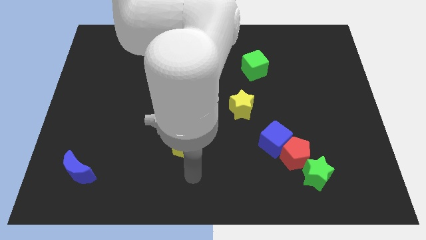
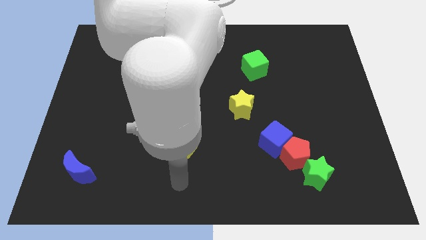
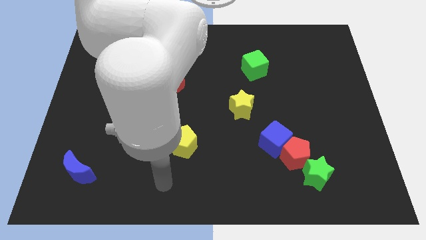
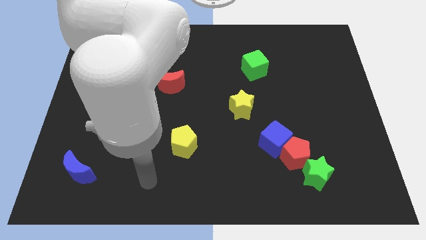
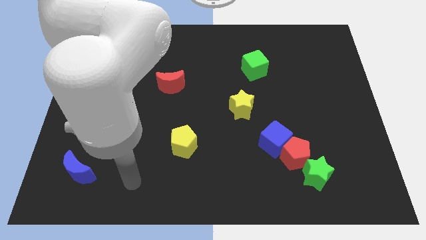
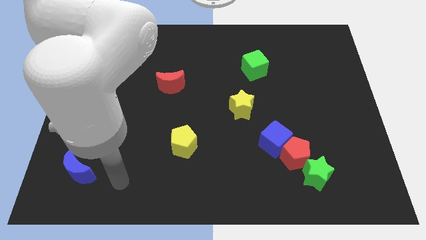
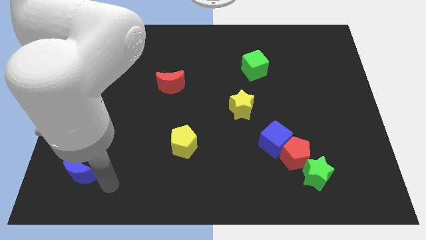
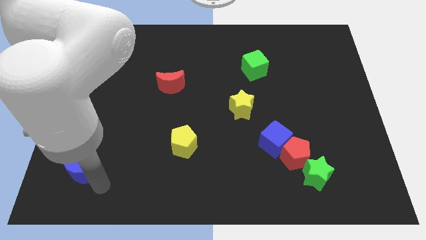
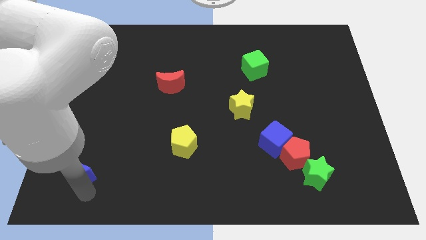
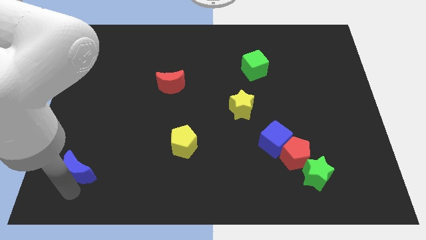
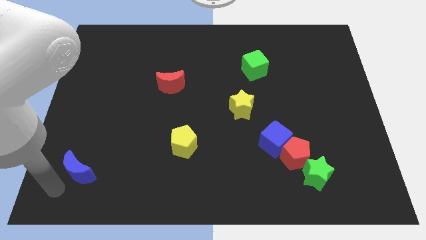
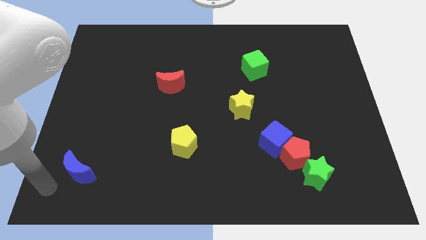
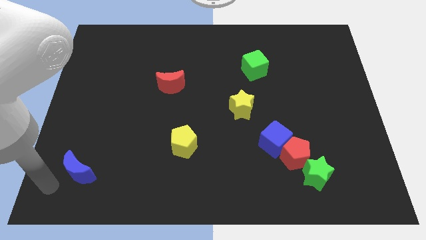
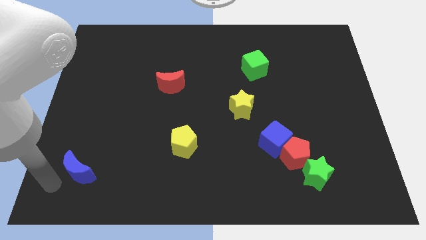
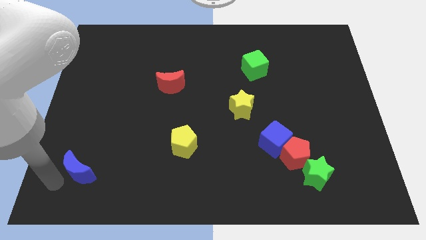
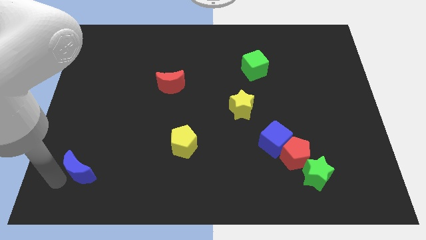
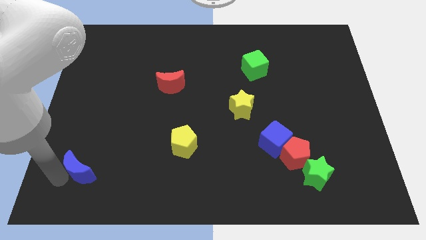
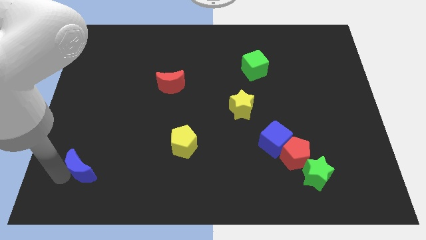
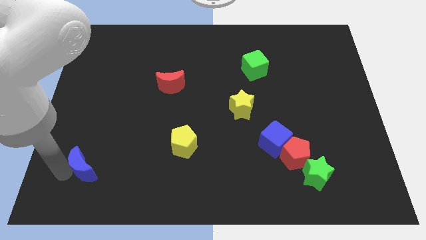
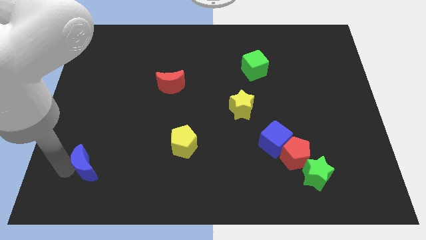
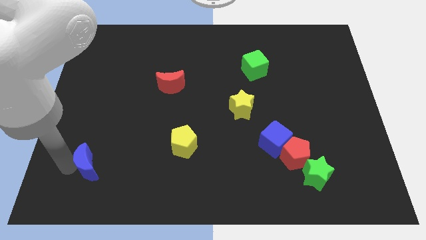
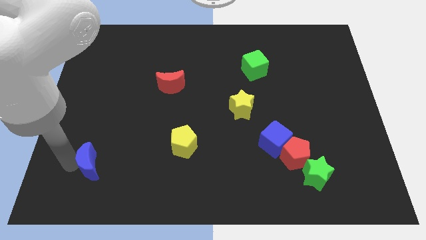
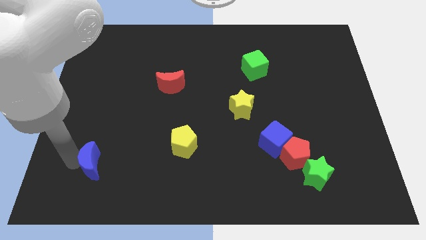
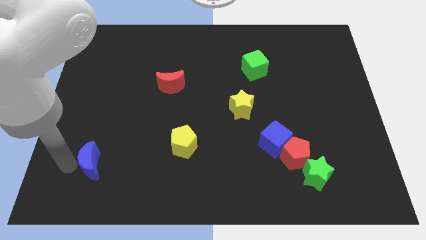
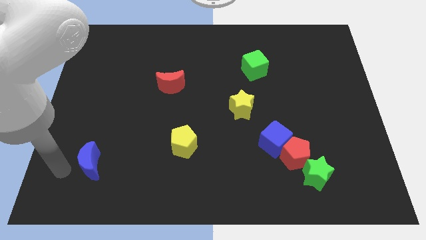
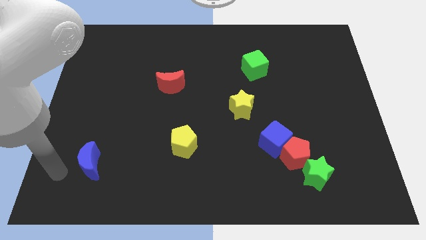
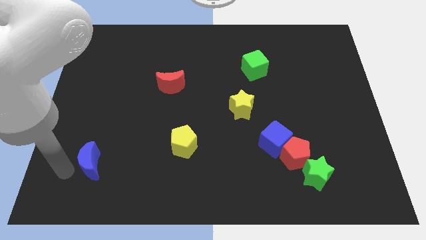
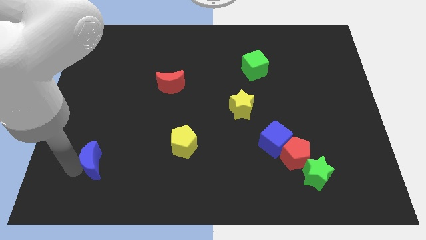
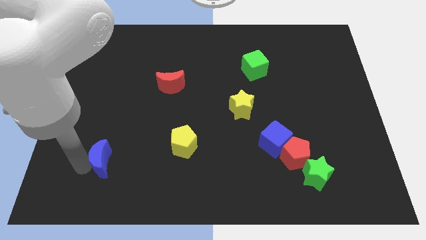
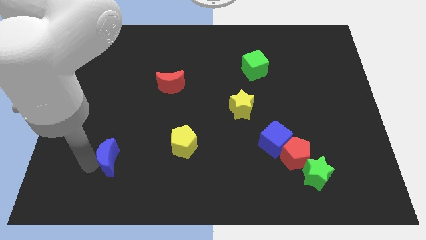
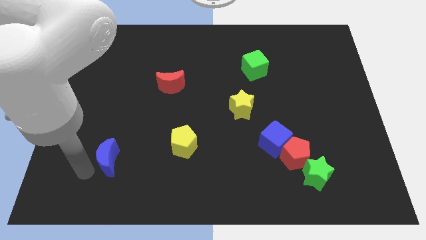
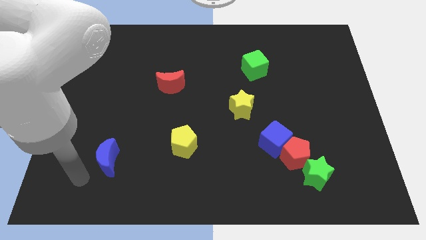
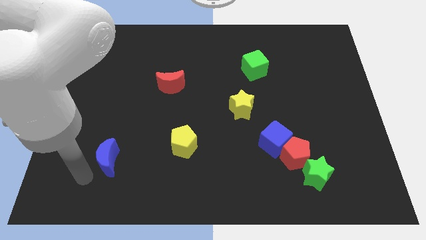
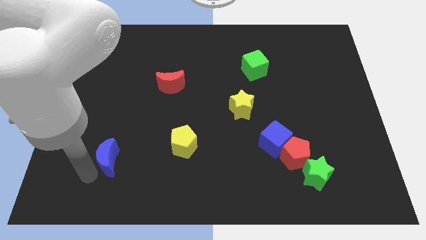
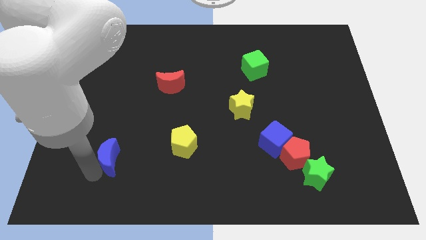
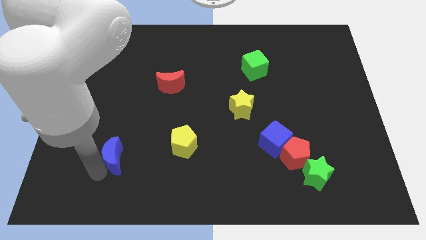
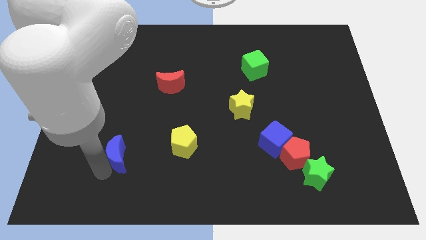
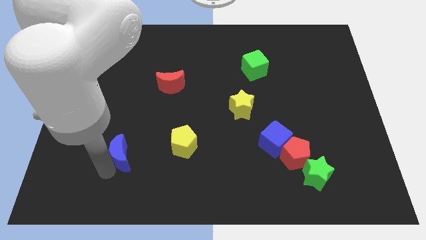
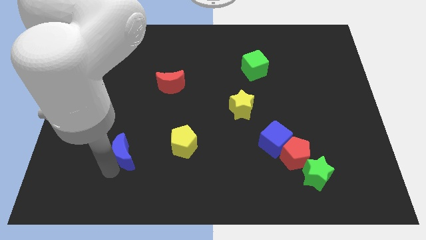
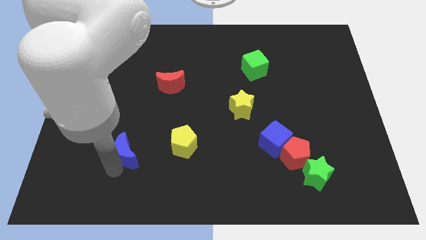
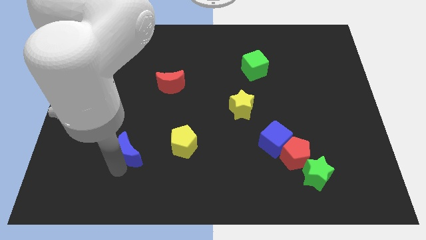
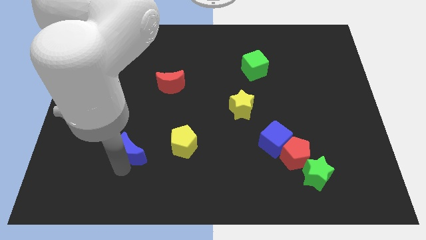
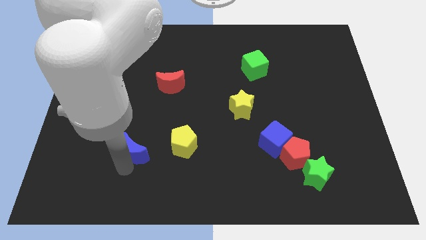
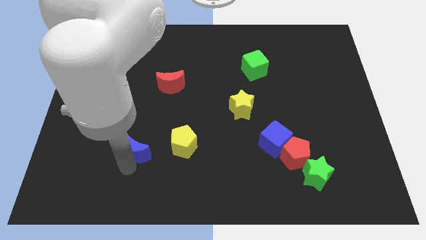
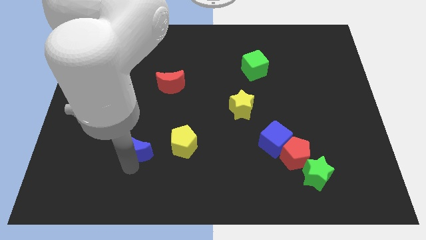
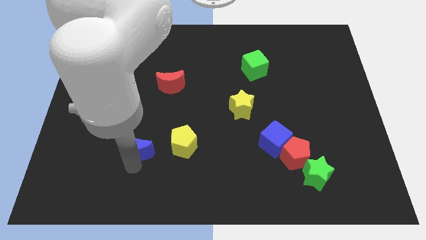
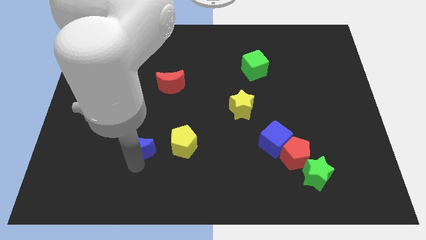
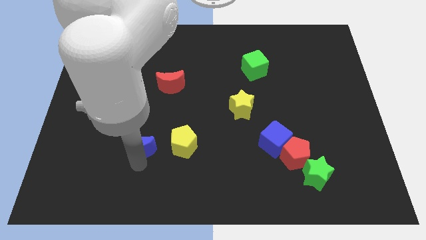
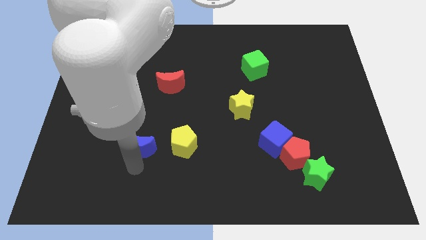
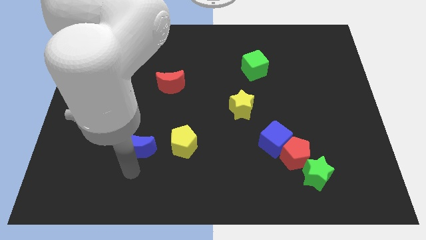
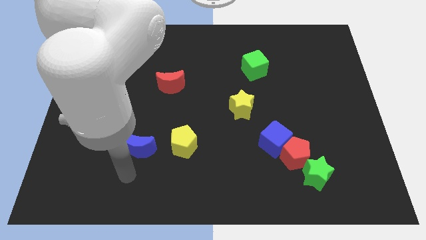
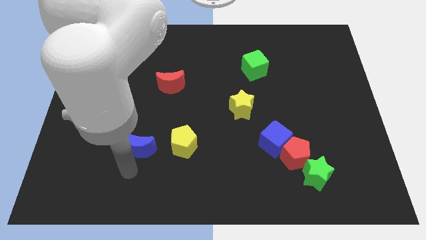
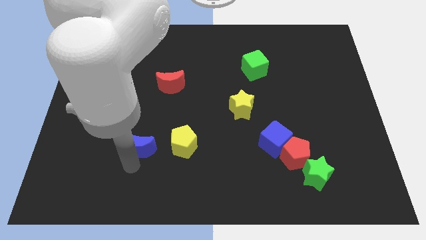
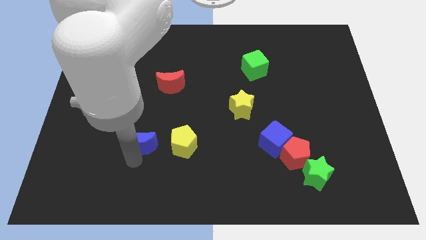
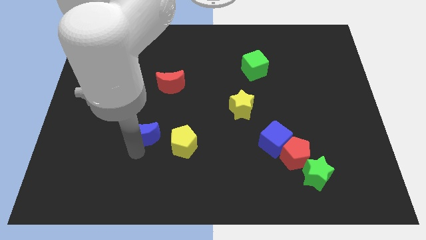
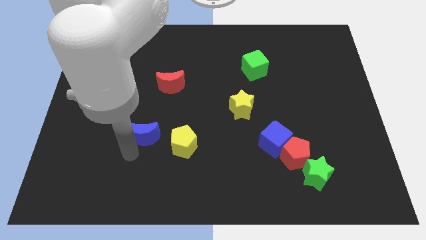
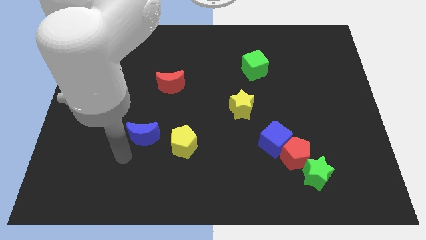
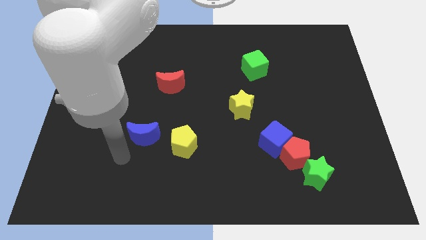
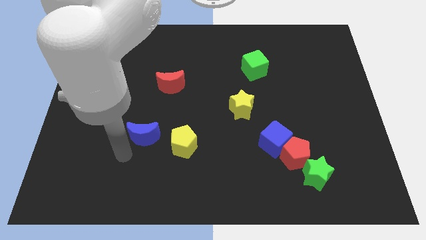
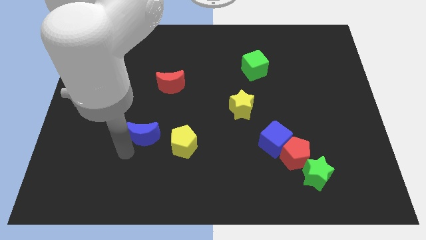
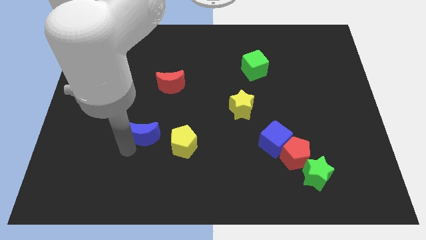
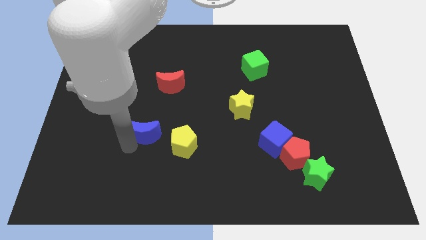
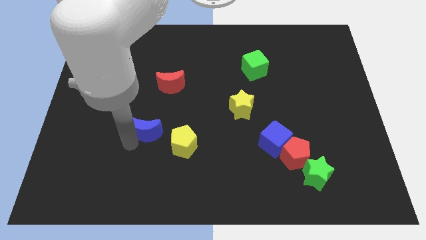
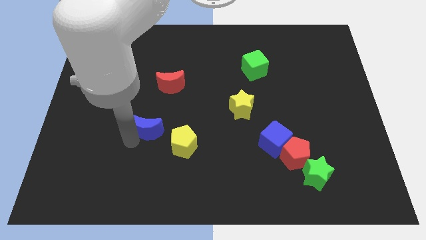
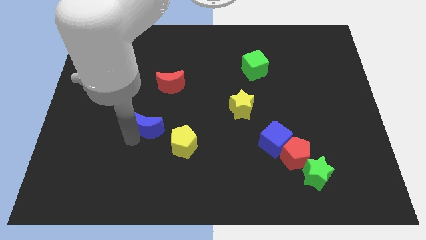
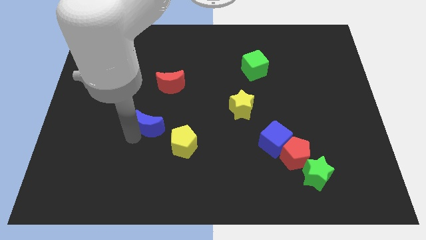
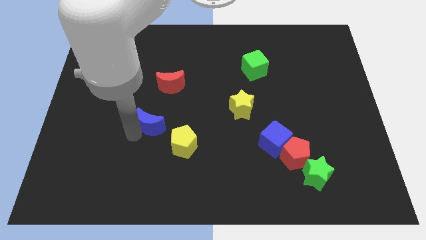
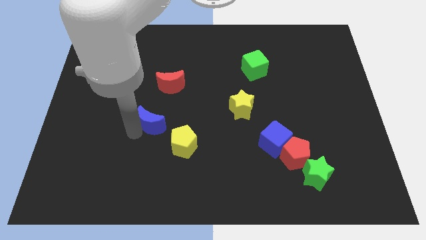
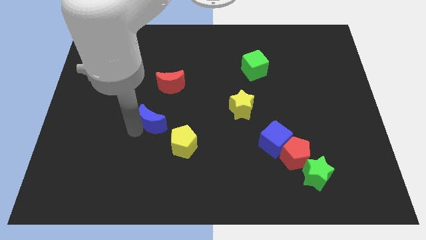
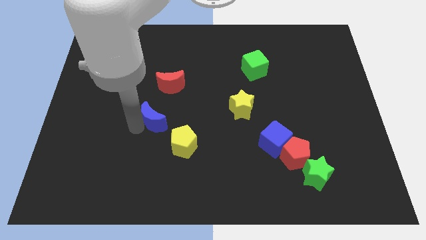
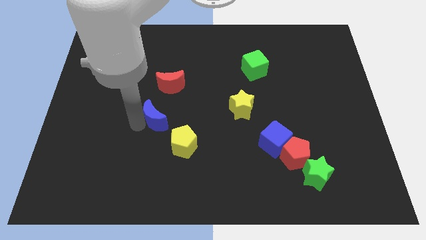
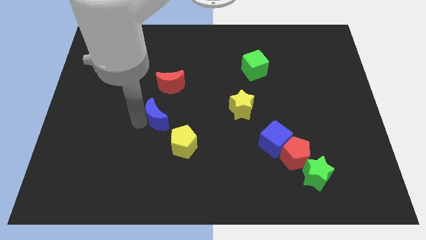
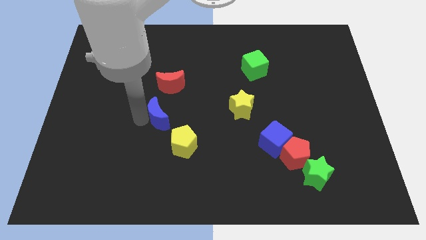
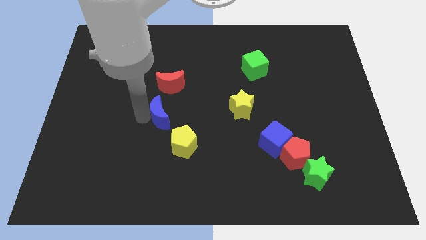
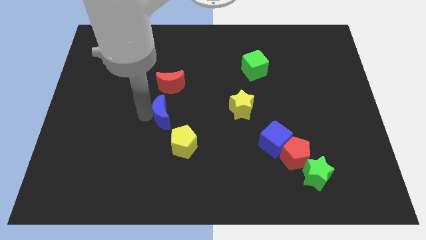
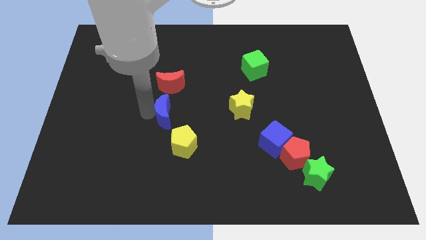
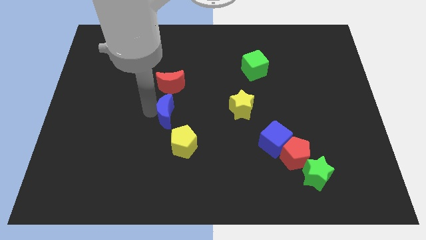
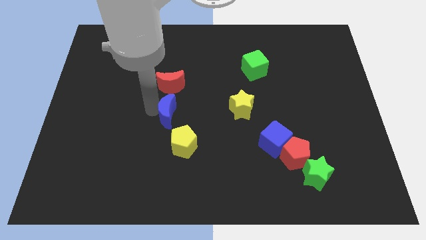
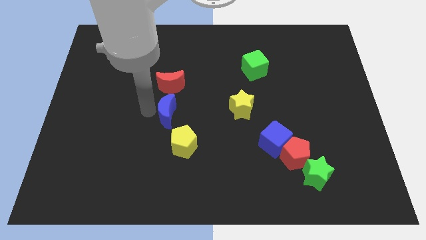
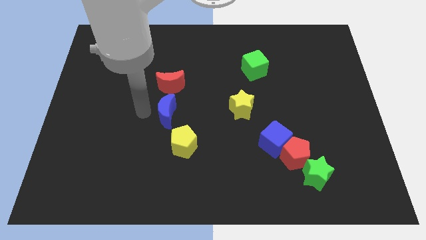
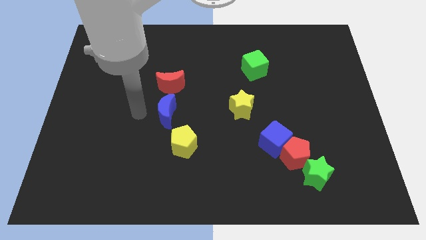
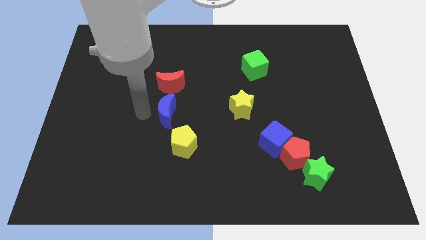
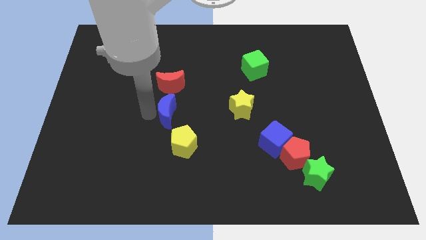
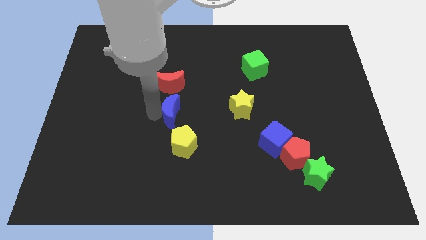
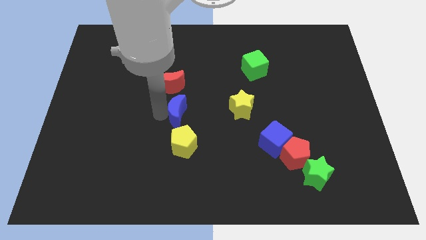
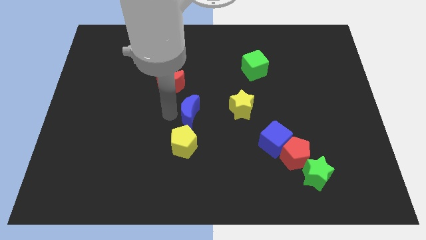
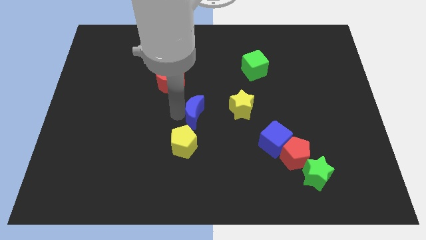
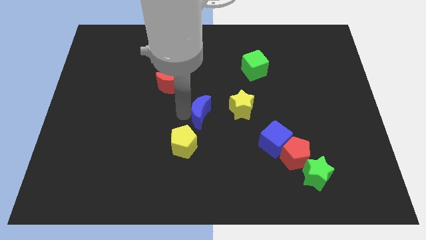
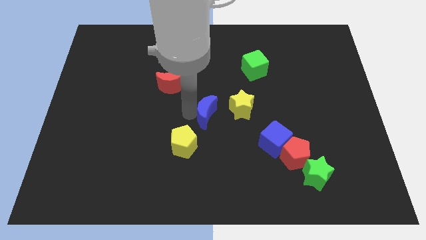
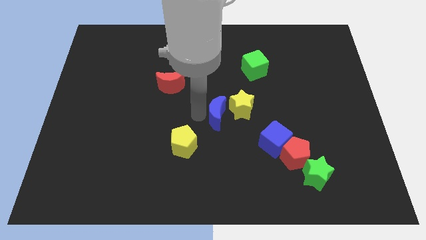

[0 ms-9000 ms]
move the blue moon to the yellow star
